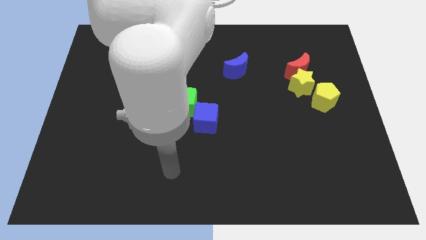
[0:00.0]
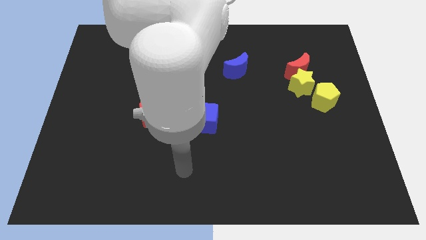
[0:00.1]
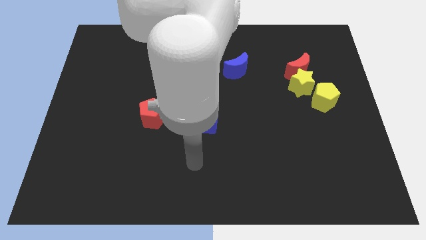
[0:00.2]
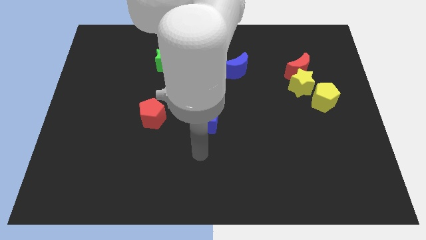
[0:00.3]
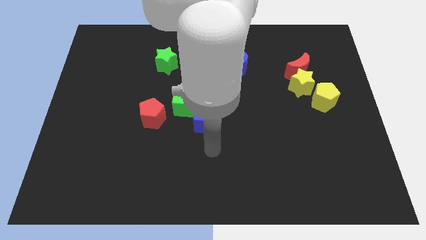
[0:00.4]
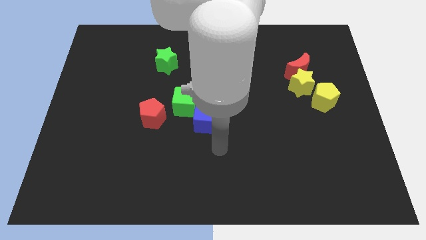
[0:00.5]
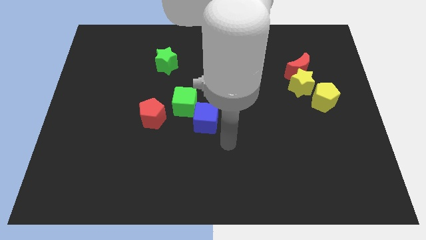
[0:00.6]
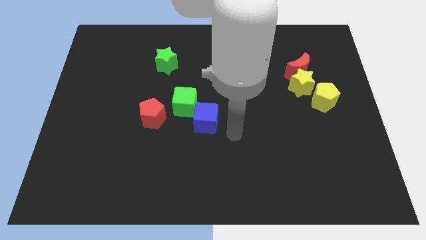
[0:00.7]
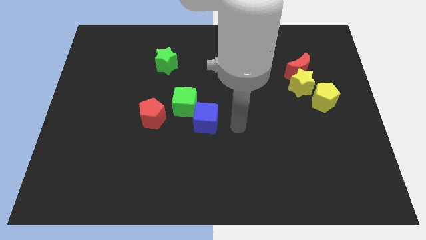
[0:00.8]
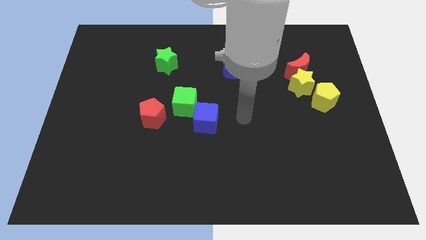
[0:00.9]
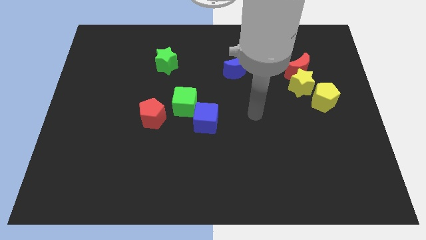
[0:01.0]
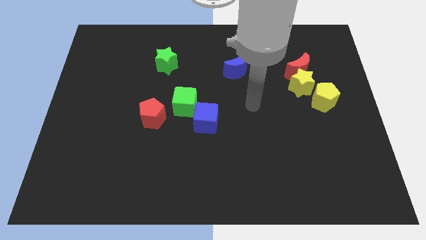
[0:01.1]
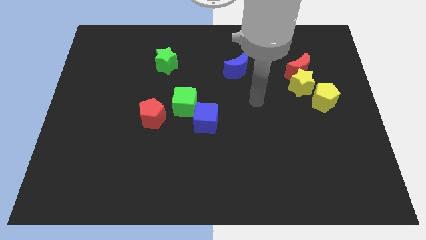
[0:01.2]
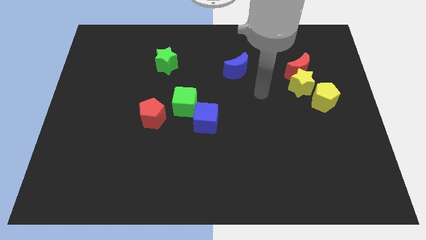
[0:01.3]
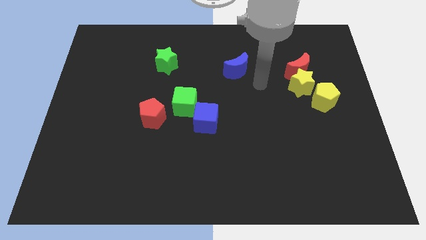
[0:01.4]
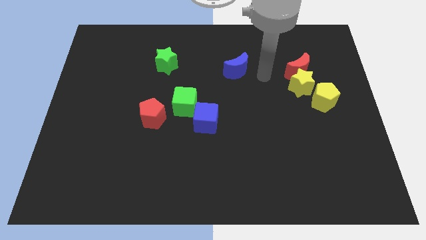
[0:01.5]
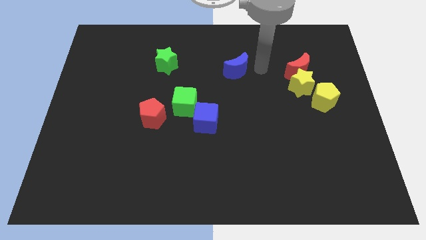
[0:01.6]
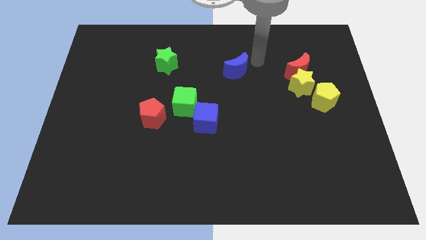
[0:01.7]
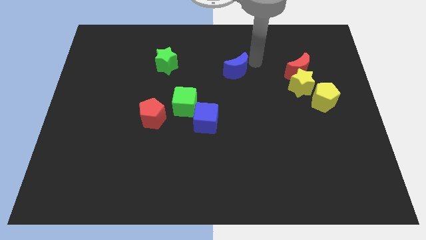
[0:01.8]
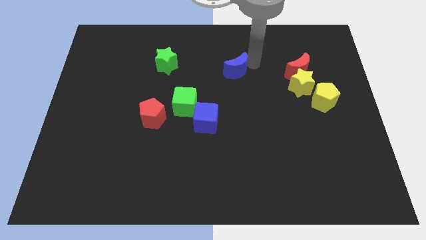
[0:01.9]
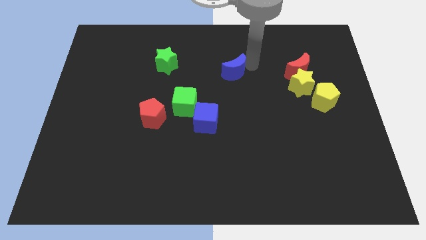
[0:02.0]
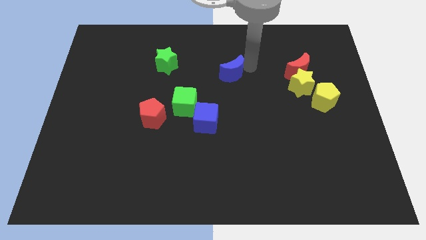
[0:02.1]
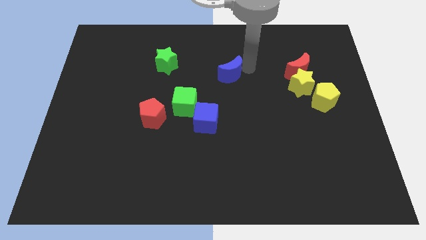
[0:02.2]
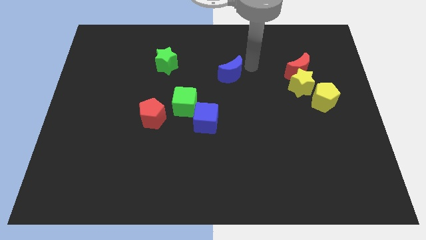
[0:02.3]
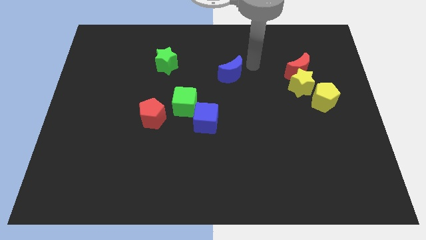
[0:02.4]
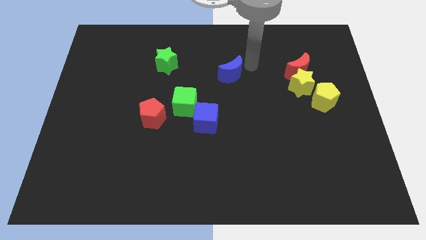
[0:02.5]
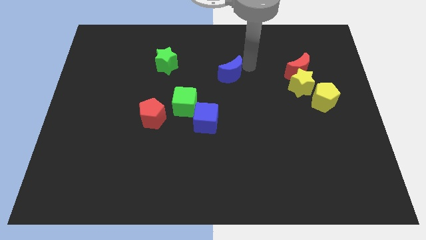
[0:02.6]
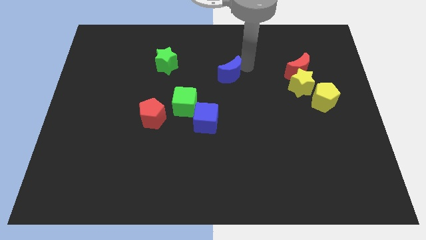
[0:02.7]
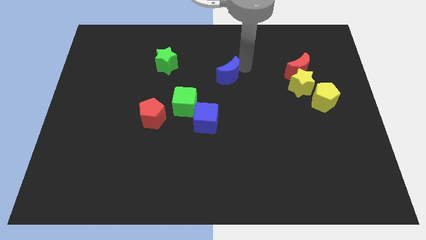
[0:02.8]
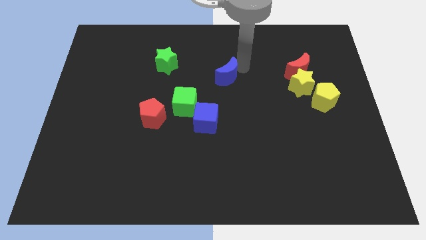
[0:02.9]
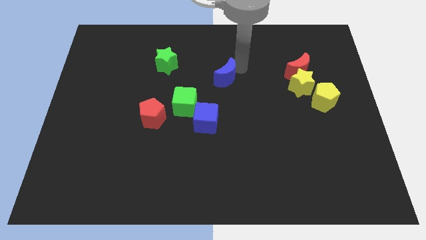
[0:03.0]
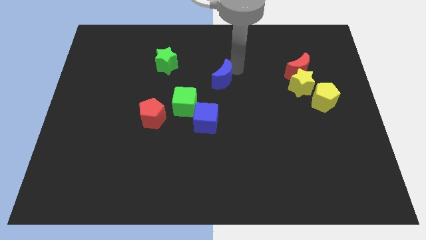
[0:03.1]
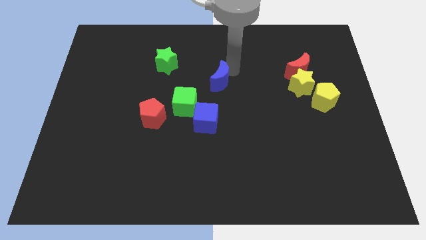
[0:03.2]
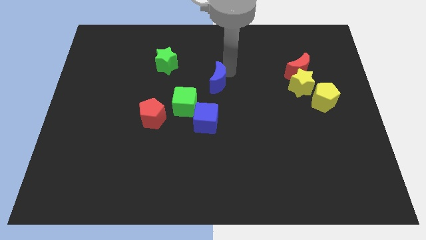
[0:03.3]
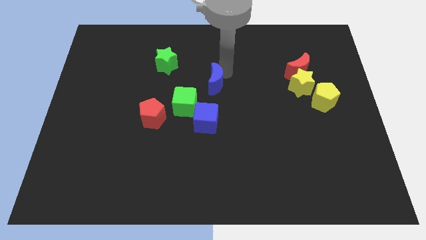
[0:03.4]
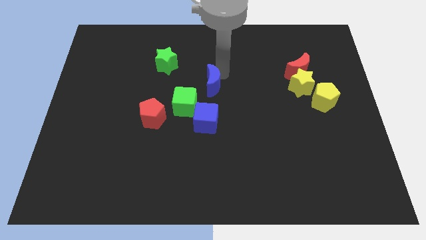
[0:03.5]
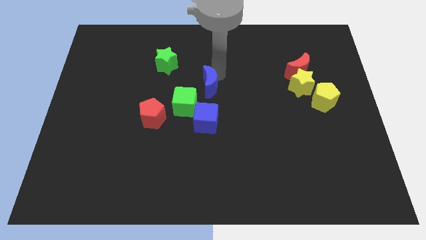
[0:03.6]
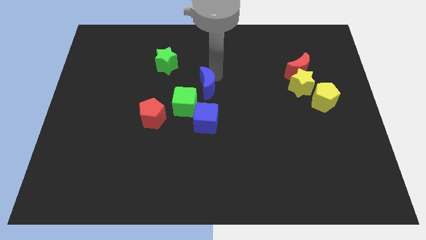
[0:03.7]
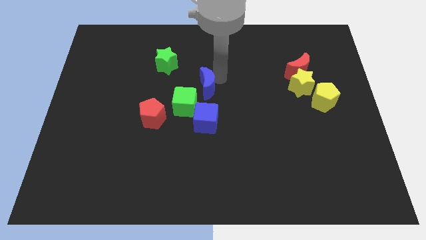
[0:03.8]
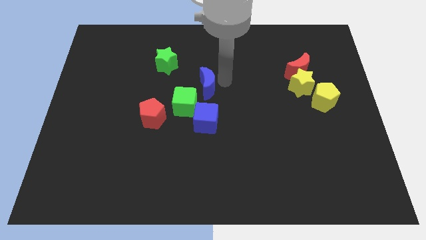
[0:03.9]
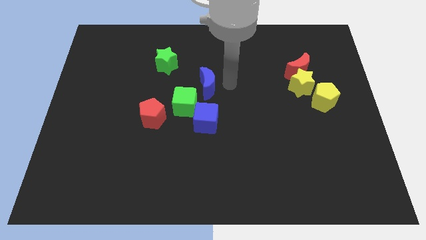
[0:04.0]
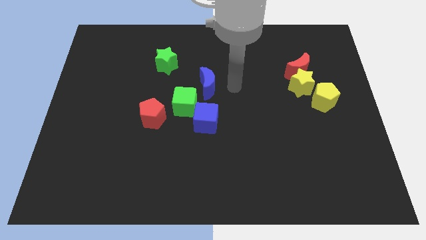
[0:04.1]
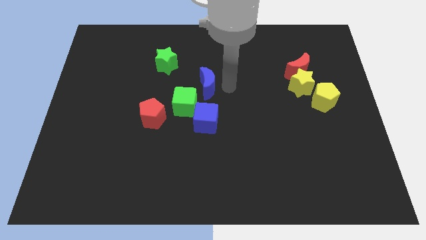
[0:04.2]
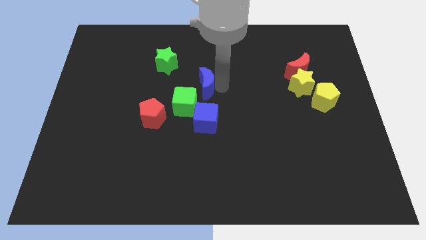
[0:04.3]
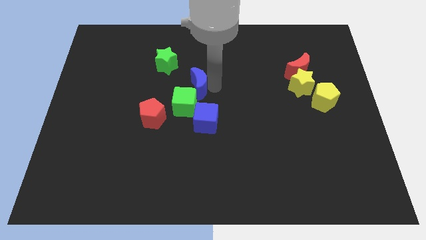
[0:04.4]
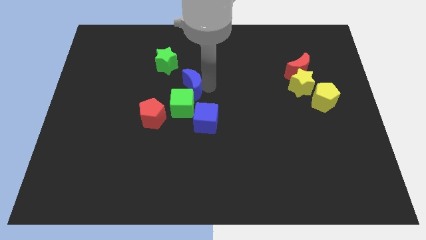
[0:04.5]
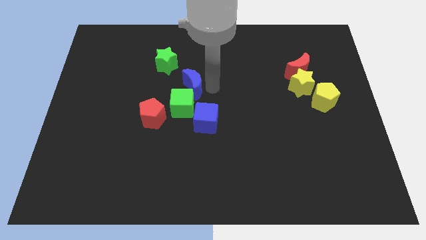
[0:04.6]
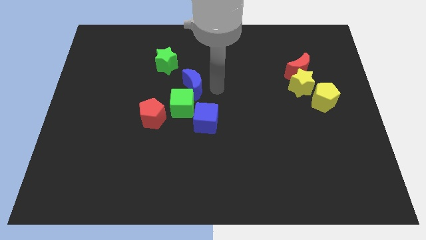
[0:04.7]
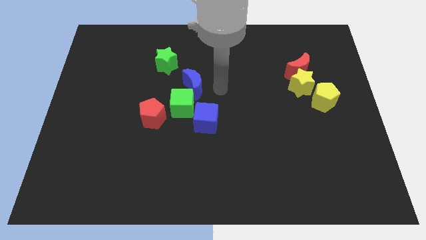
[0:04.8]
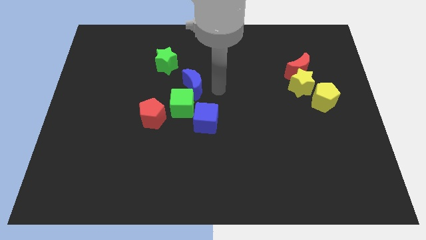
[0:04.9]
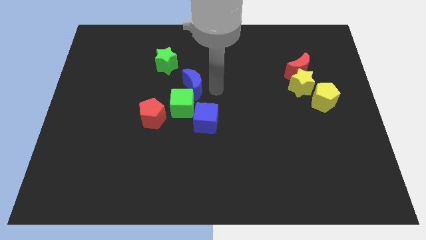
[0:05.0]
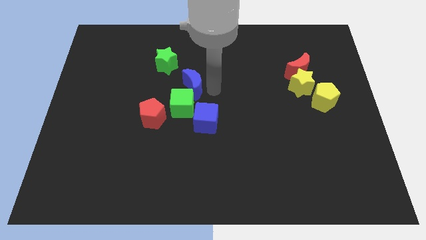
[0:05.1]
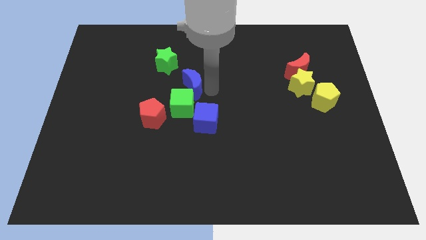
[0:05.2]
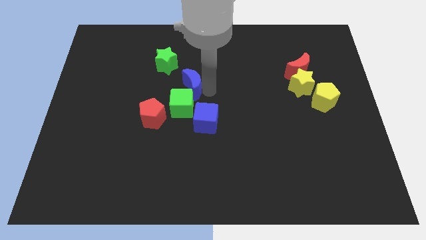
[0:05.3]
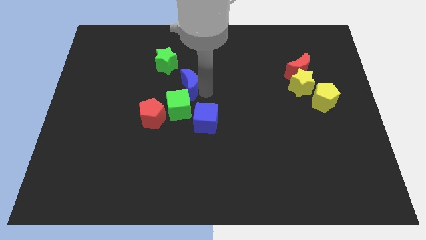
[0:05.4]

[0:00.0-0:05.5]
push the blue moon to the top left side of the blue cube

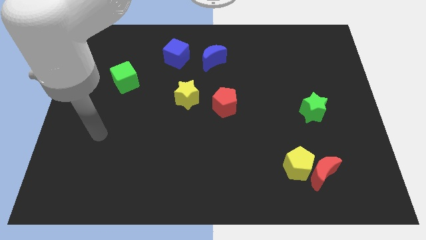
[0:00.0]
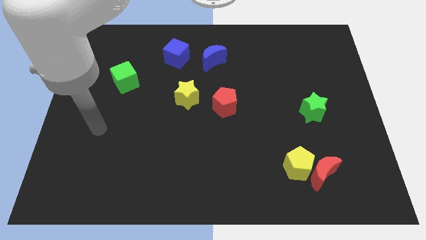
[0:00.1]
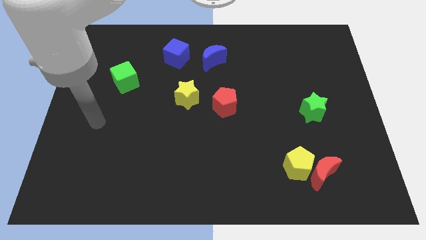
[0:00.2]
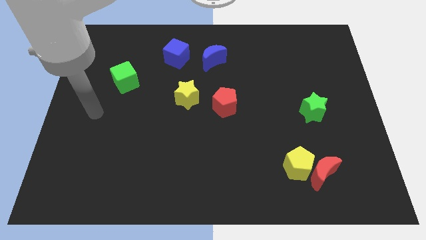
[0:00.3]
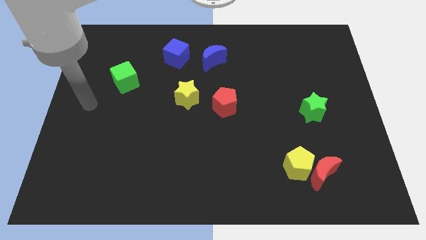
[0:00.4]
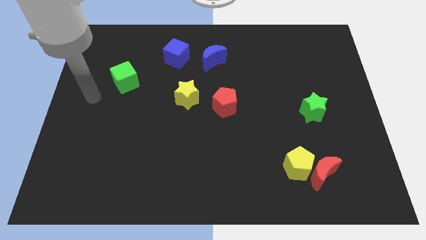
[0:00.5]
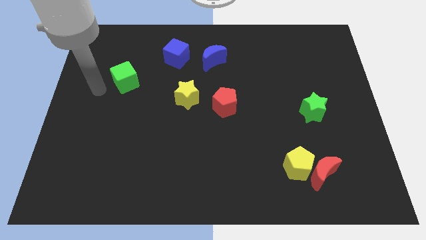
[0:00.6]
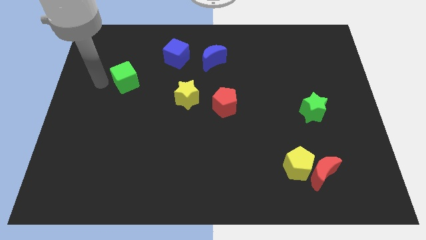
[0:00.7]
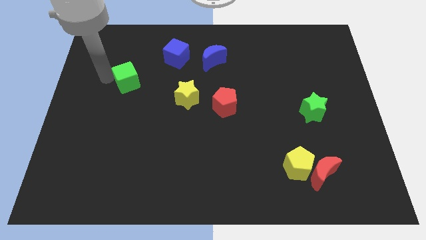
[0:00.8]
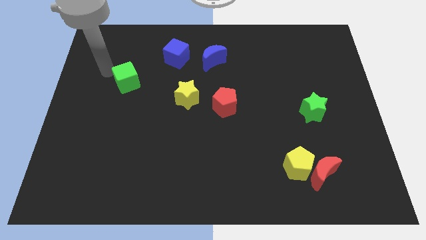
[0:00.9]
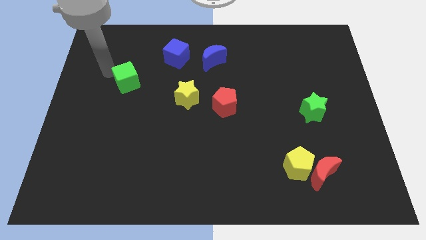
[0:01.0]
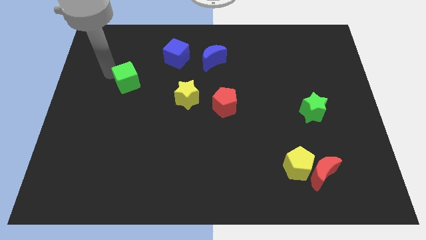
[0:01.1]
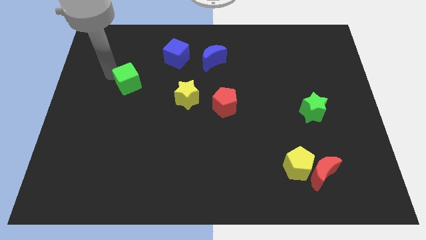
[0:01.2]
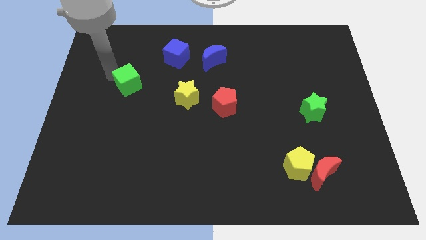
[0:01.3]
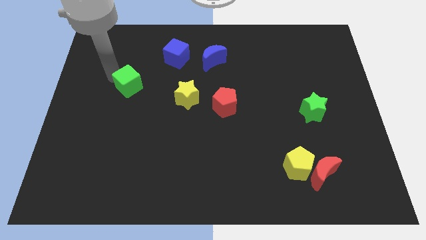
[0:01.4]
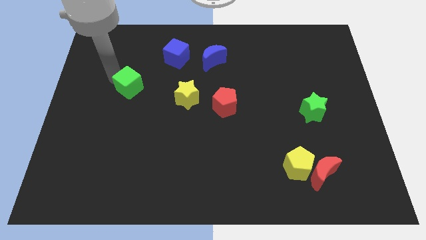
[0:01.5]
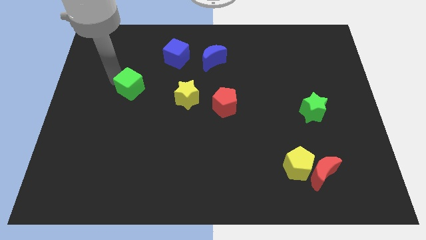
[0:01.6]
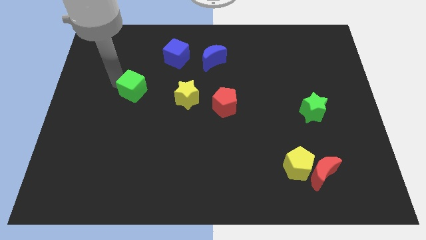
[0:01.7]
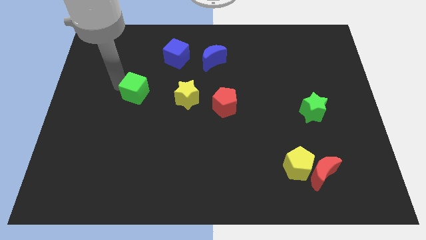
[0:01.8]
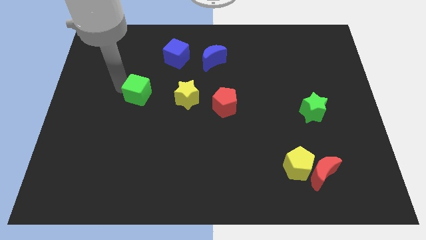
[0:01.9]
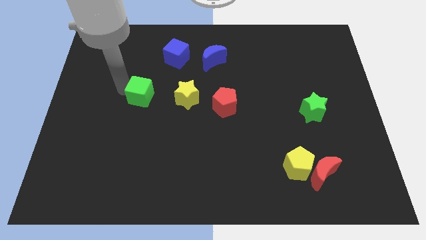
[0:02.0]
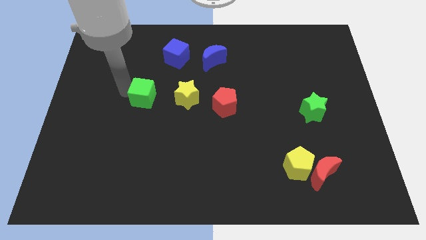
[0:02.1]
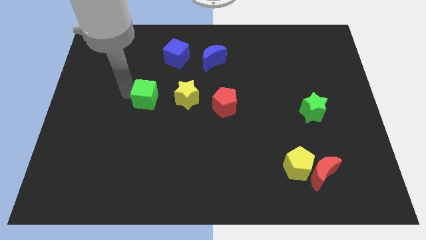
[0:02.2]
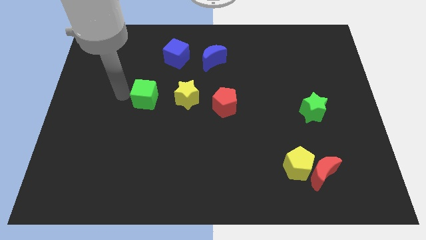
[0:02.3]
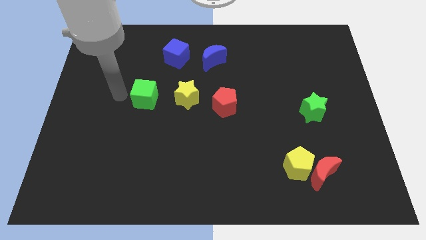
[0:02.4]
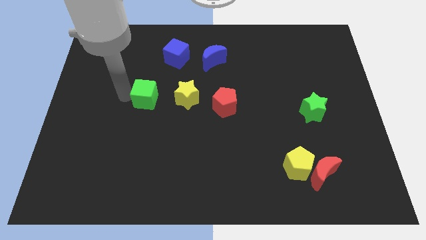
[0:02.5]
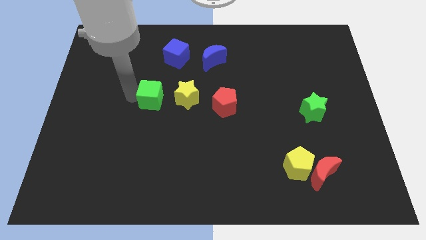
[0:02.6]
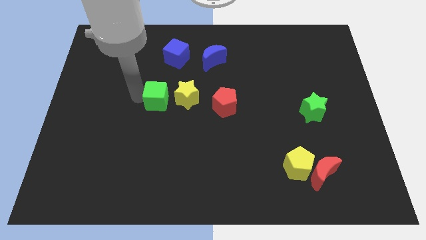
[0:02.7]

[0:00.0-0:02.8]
push the green cube to the bottom of the blue cube
